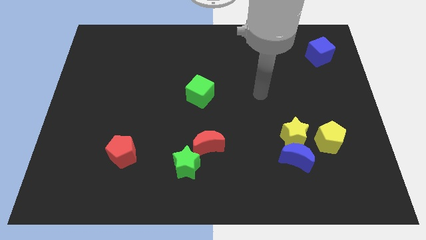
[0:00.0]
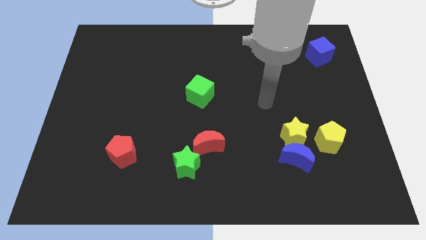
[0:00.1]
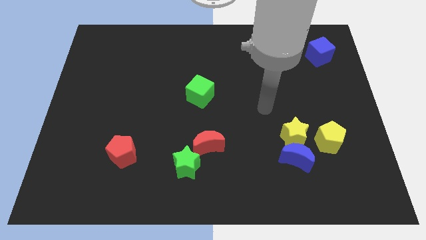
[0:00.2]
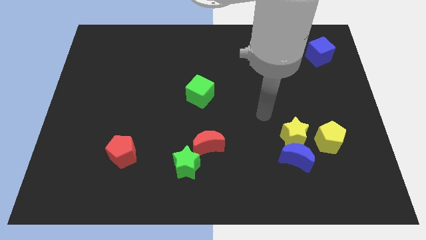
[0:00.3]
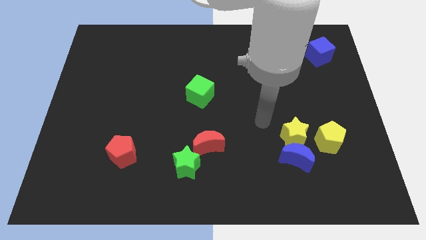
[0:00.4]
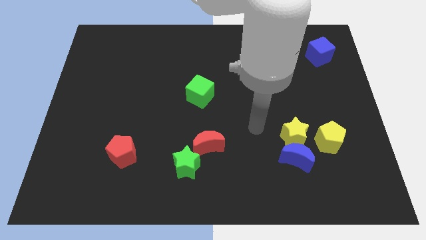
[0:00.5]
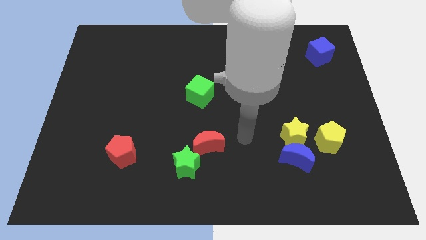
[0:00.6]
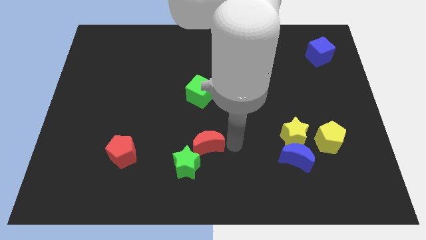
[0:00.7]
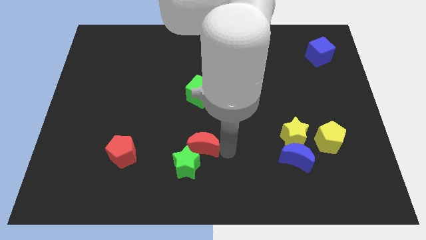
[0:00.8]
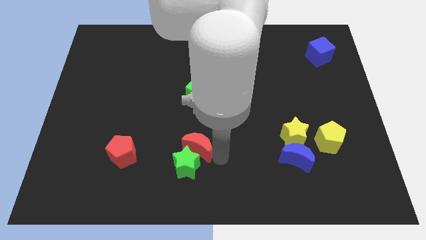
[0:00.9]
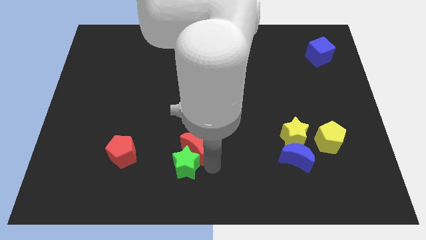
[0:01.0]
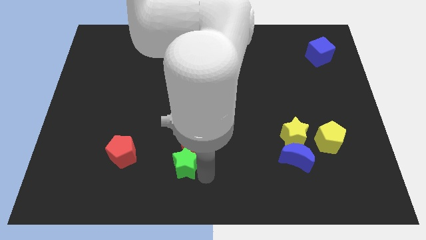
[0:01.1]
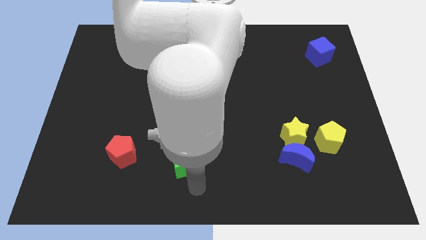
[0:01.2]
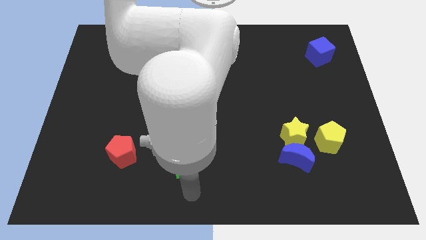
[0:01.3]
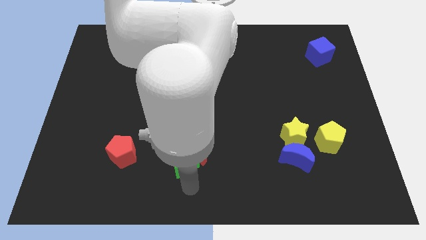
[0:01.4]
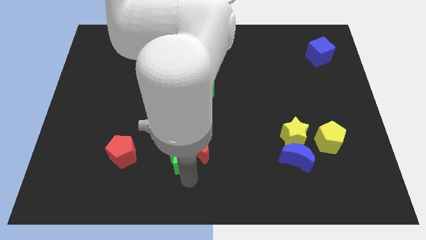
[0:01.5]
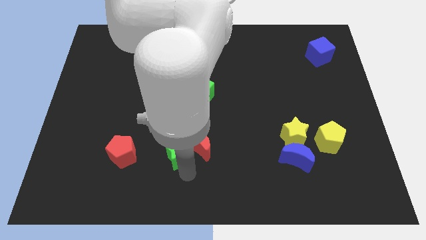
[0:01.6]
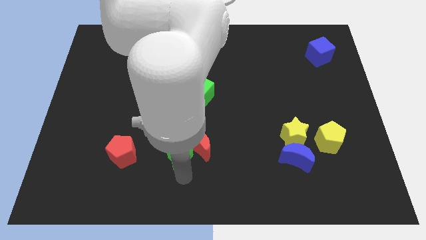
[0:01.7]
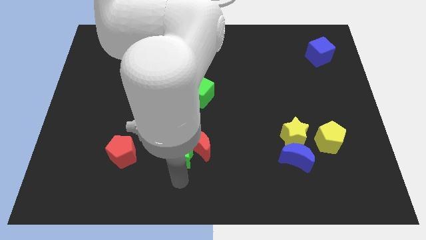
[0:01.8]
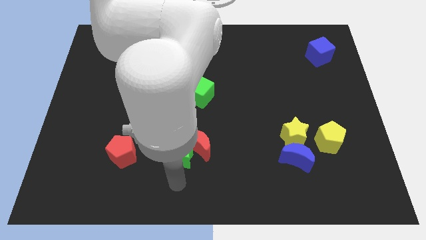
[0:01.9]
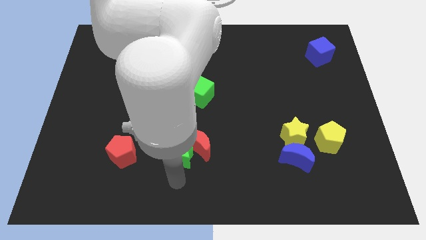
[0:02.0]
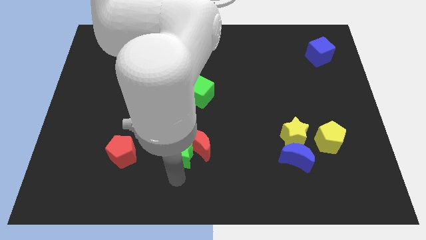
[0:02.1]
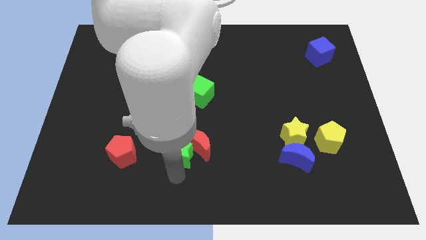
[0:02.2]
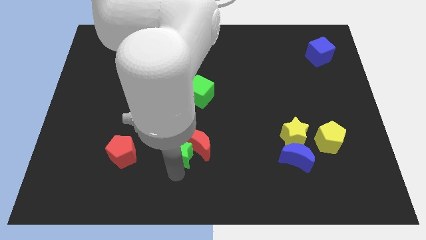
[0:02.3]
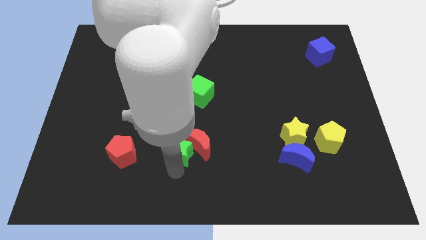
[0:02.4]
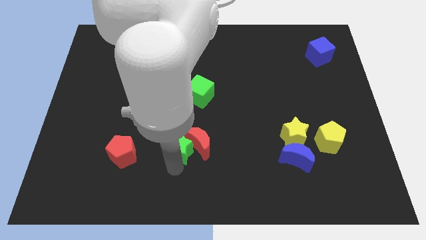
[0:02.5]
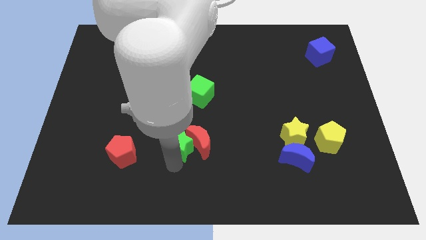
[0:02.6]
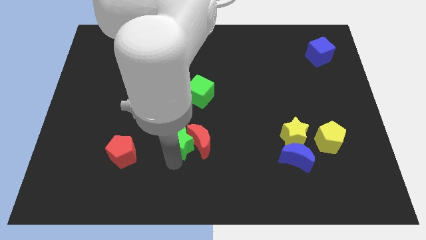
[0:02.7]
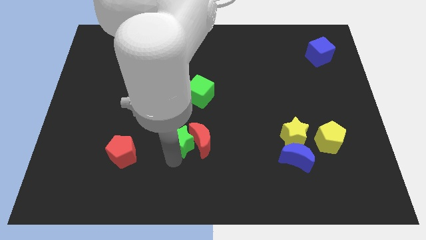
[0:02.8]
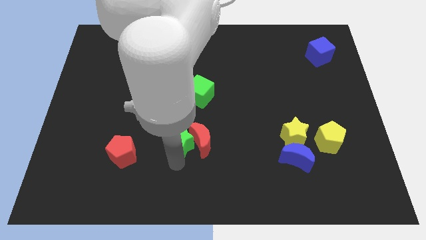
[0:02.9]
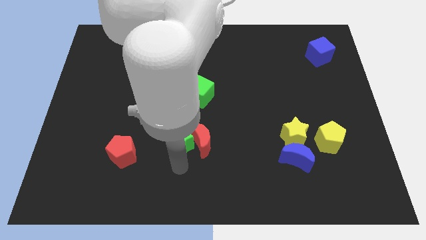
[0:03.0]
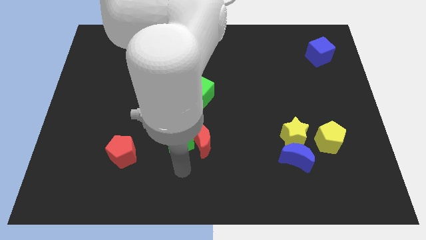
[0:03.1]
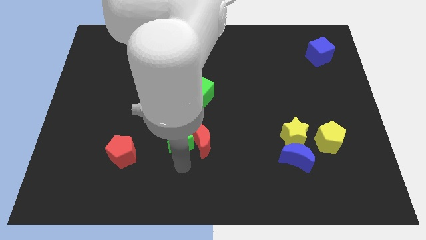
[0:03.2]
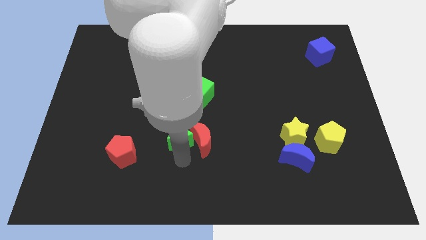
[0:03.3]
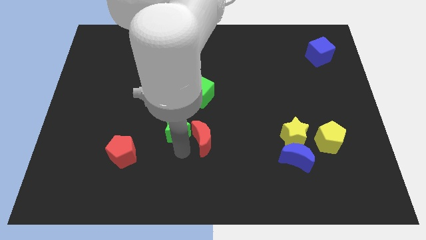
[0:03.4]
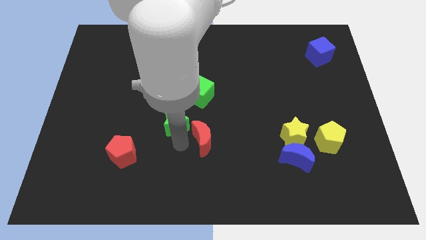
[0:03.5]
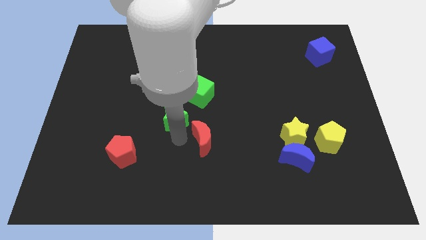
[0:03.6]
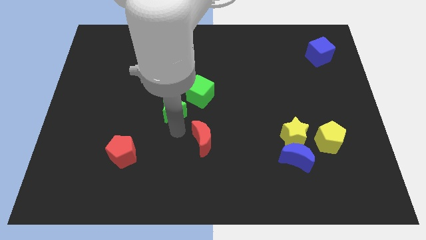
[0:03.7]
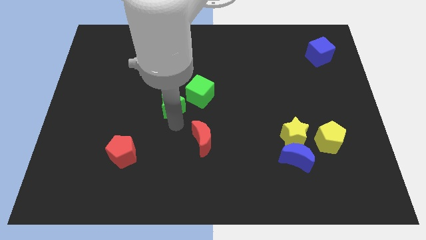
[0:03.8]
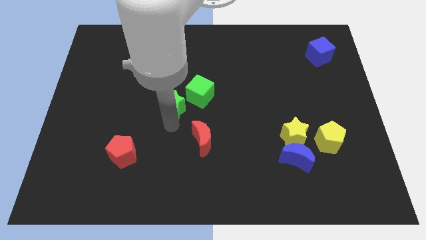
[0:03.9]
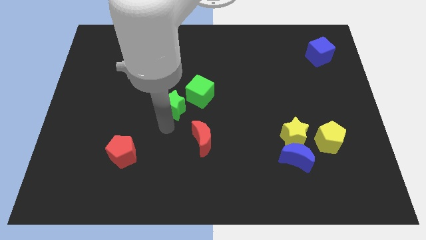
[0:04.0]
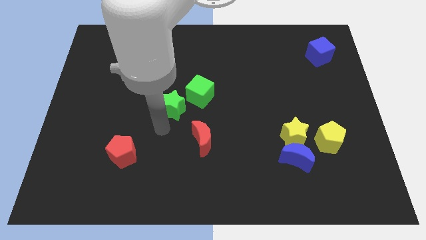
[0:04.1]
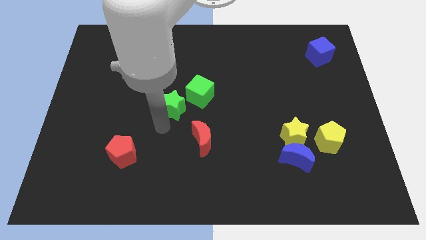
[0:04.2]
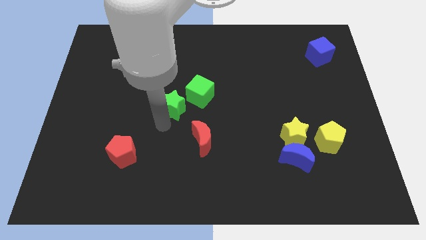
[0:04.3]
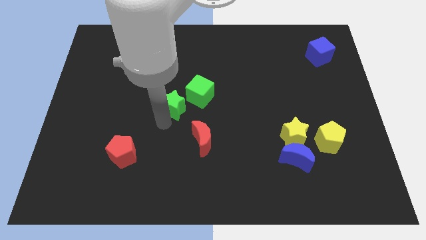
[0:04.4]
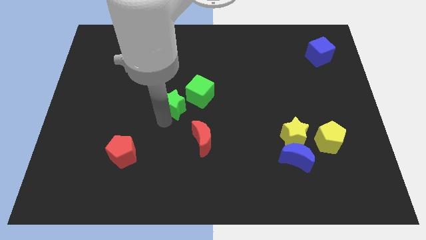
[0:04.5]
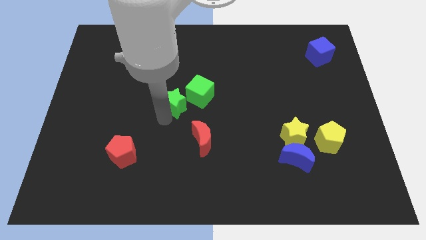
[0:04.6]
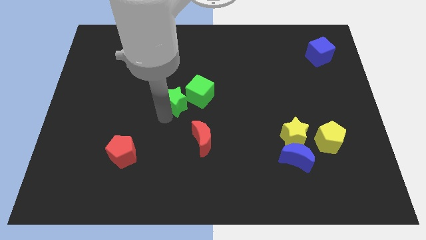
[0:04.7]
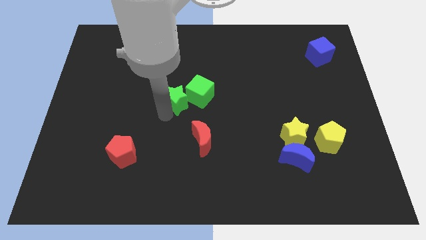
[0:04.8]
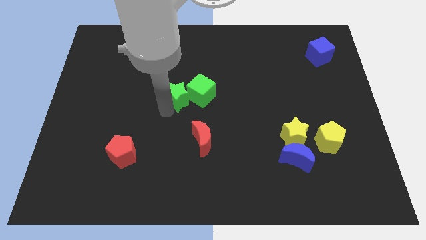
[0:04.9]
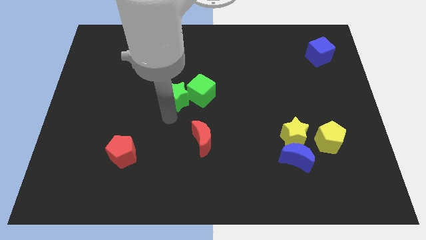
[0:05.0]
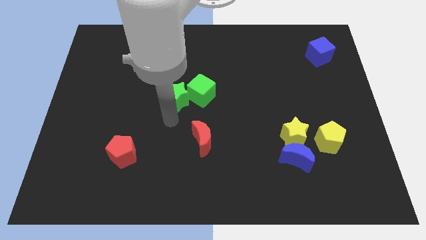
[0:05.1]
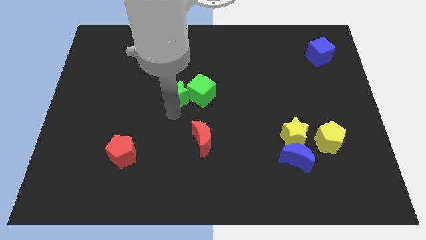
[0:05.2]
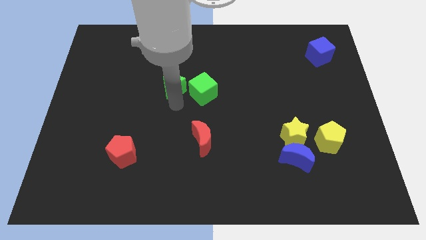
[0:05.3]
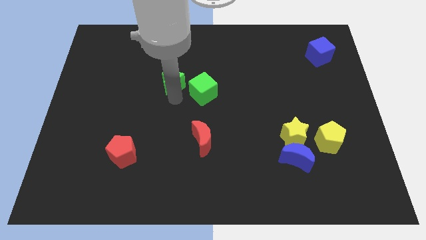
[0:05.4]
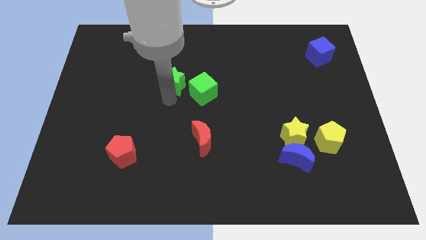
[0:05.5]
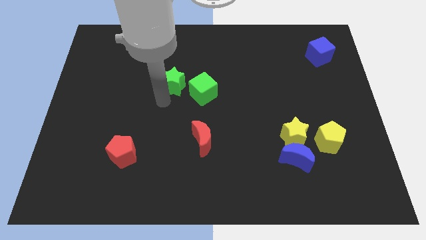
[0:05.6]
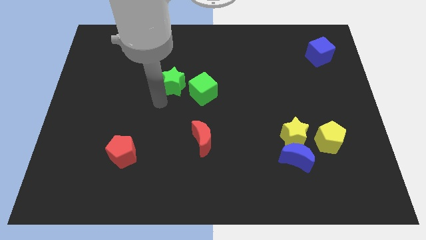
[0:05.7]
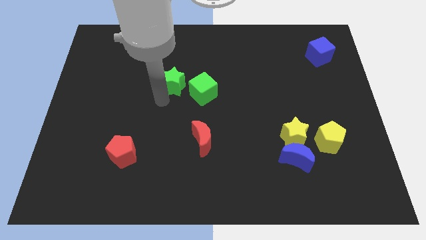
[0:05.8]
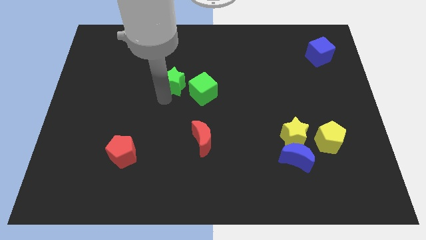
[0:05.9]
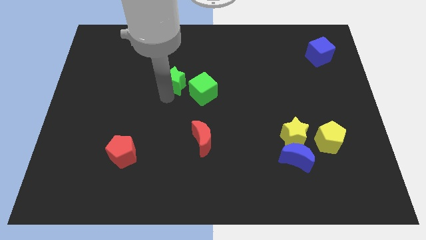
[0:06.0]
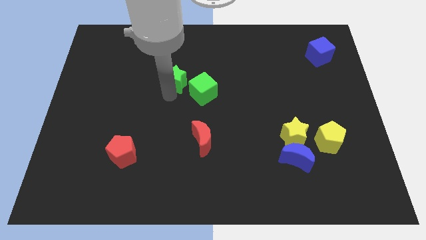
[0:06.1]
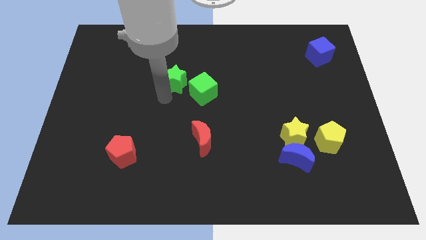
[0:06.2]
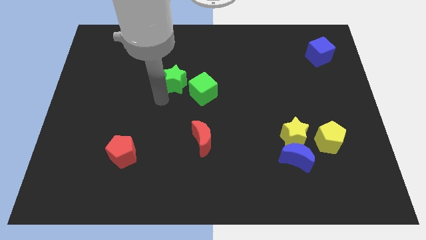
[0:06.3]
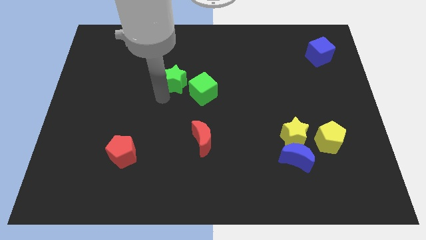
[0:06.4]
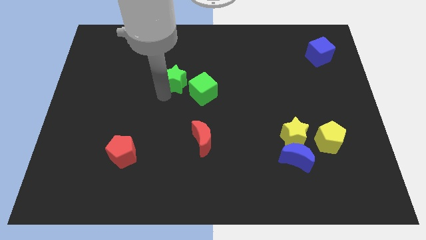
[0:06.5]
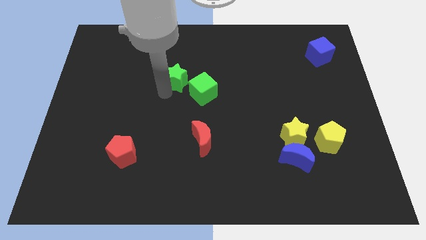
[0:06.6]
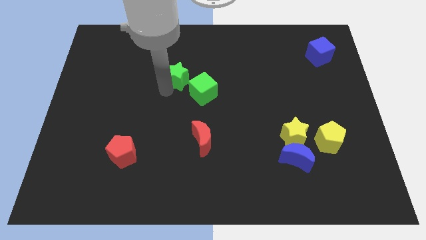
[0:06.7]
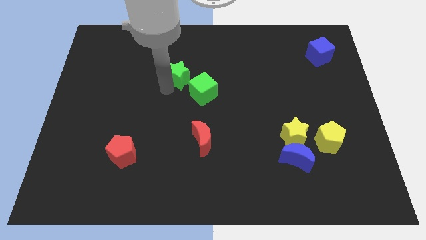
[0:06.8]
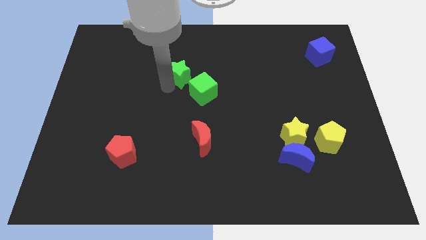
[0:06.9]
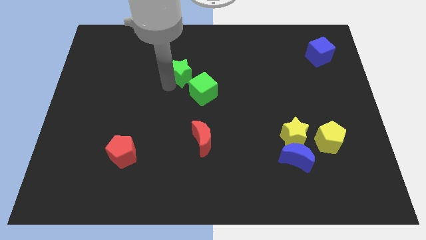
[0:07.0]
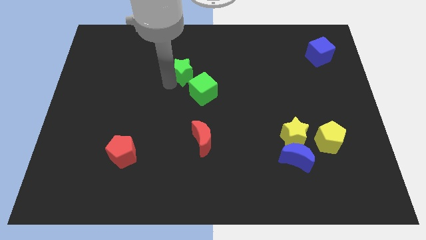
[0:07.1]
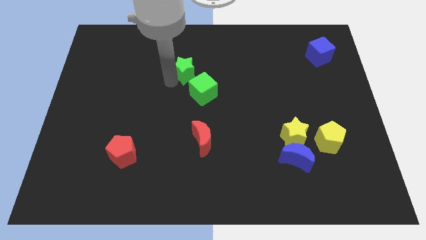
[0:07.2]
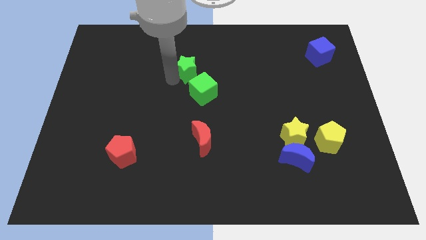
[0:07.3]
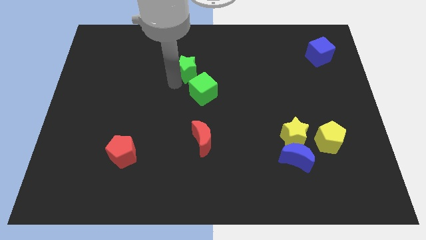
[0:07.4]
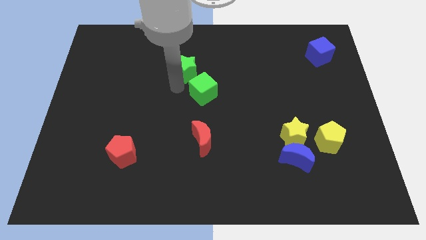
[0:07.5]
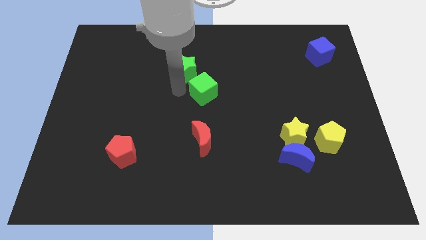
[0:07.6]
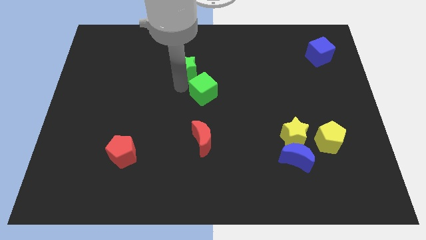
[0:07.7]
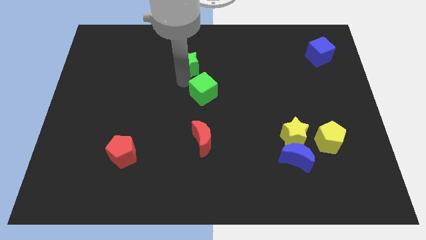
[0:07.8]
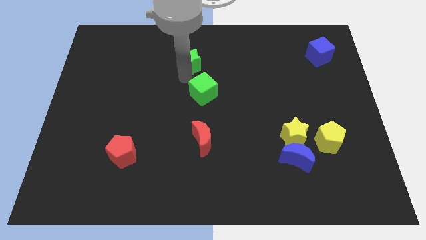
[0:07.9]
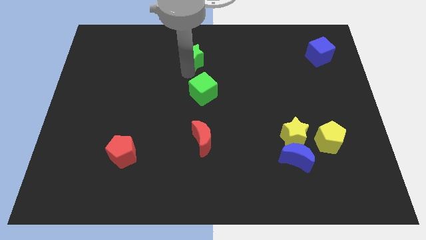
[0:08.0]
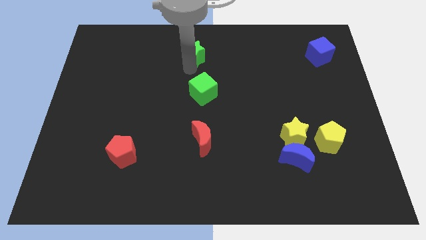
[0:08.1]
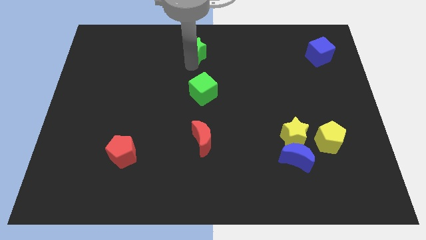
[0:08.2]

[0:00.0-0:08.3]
slide the green star to the top side
